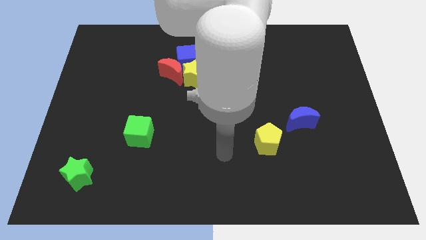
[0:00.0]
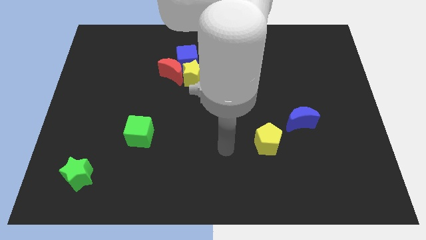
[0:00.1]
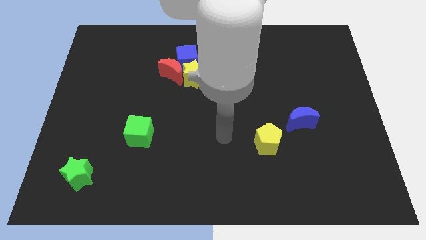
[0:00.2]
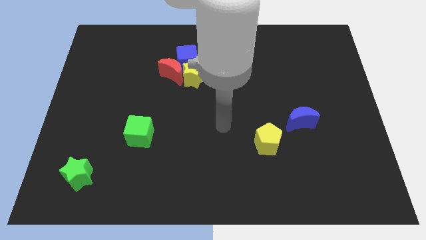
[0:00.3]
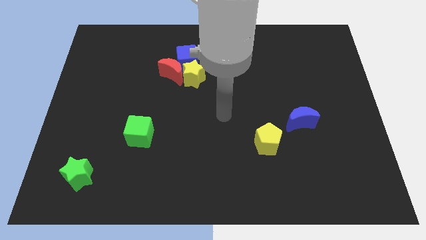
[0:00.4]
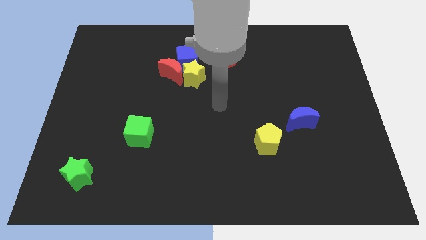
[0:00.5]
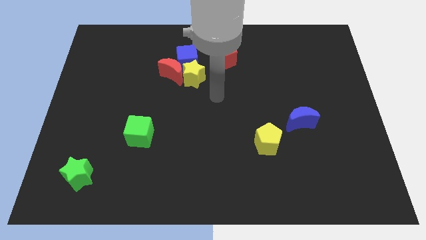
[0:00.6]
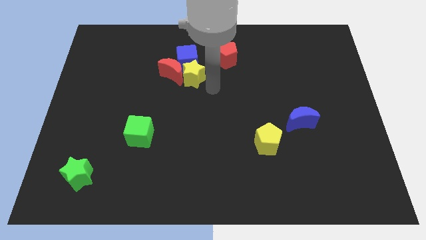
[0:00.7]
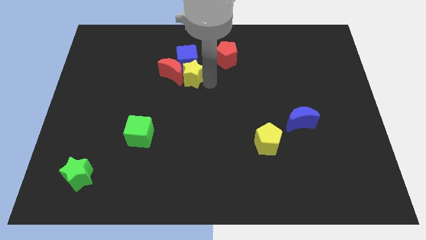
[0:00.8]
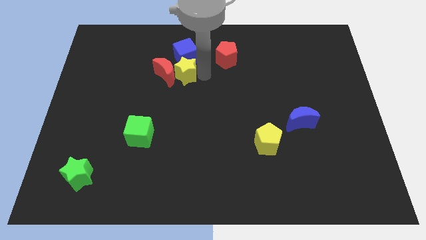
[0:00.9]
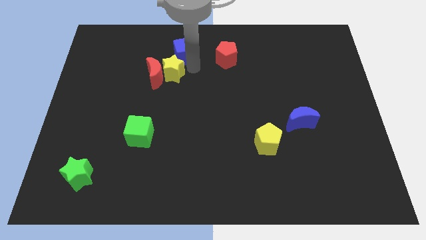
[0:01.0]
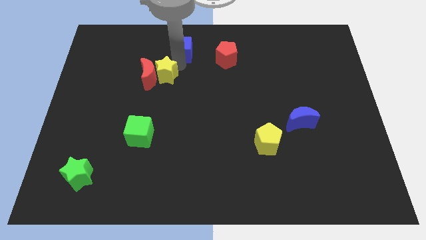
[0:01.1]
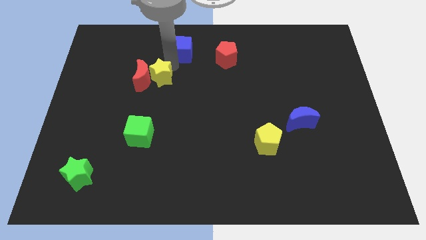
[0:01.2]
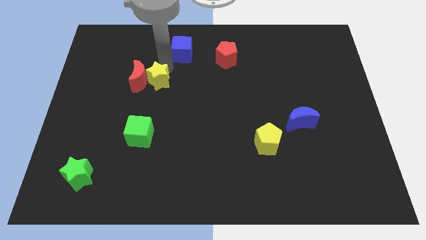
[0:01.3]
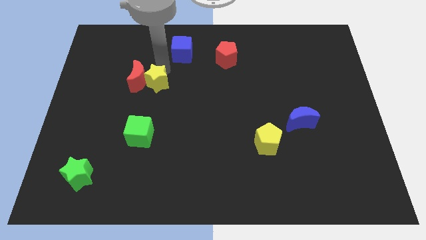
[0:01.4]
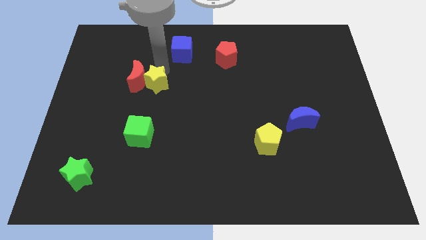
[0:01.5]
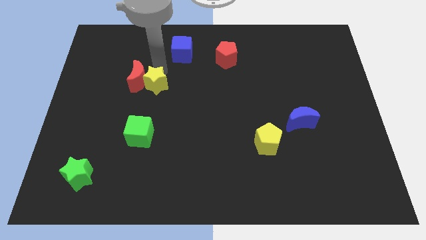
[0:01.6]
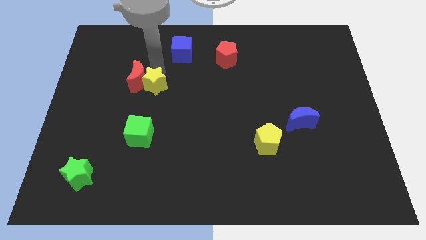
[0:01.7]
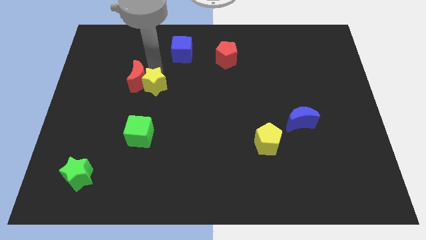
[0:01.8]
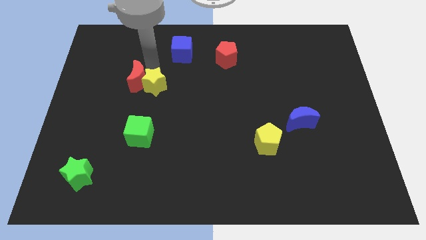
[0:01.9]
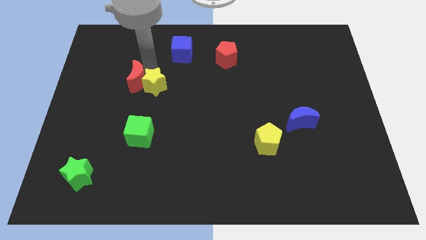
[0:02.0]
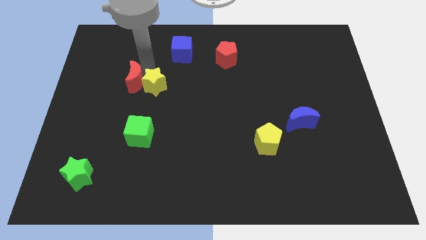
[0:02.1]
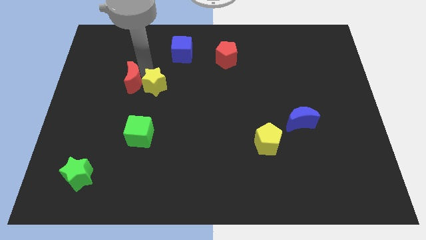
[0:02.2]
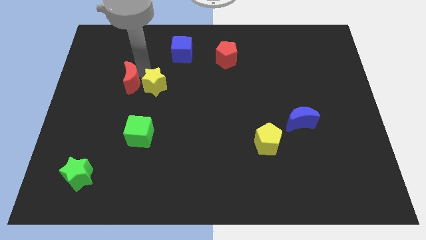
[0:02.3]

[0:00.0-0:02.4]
separate the red moon from the blue cube and yellow star

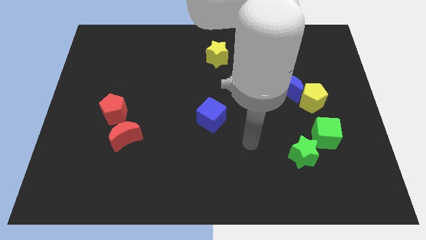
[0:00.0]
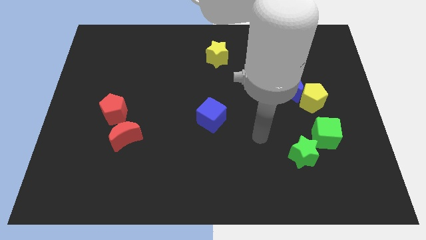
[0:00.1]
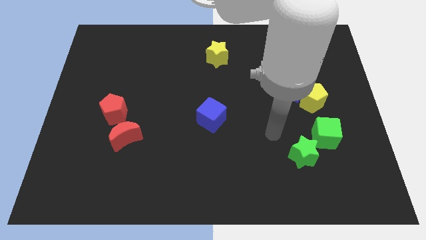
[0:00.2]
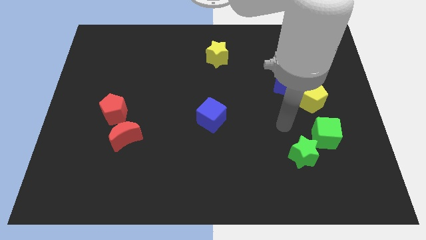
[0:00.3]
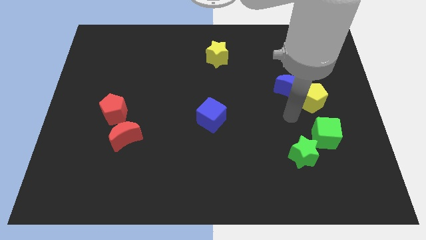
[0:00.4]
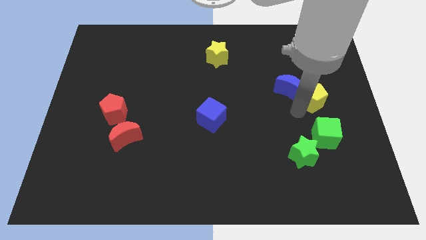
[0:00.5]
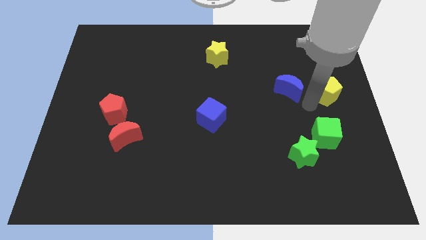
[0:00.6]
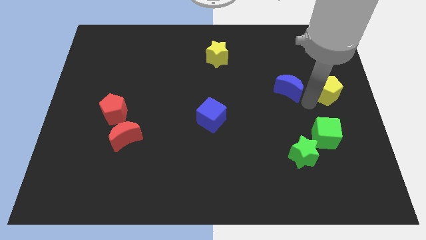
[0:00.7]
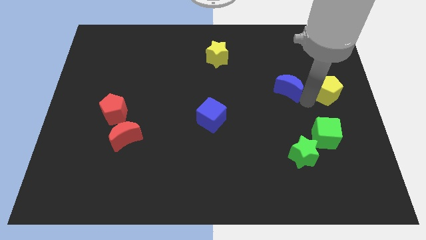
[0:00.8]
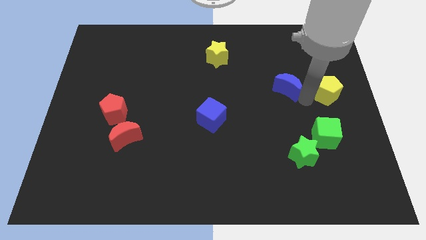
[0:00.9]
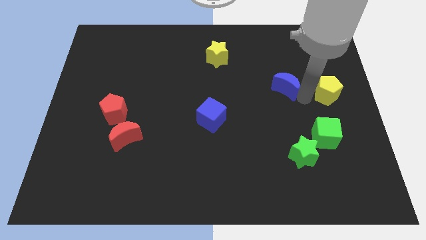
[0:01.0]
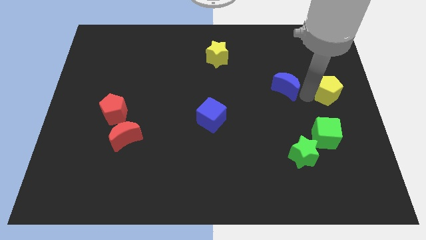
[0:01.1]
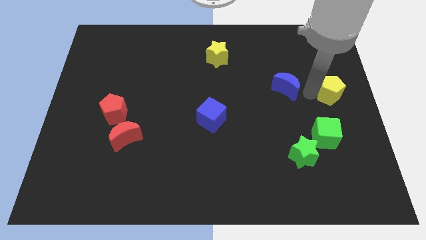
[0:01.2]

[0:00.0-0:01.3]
separate the blue moon from the yellow pentagon

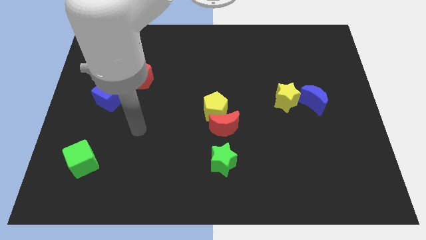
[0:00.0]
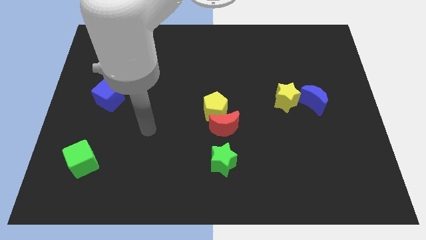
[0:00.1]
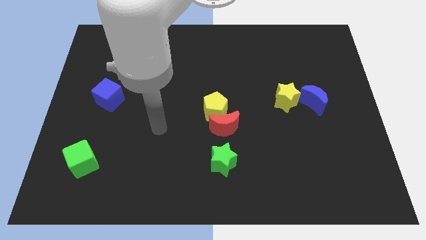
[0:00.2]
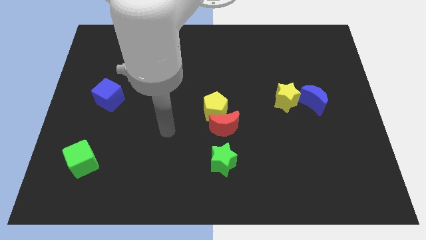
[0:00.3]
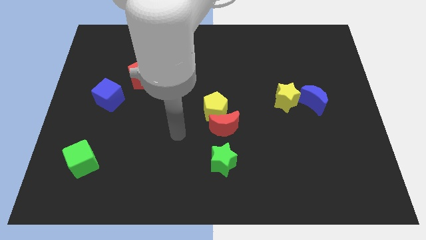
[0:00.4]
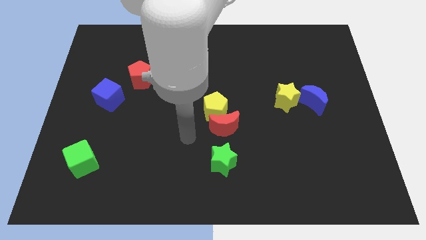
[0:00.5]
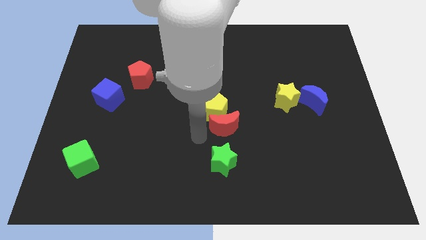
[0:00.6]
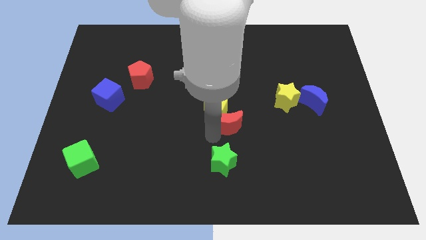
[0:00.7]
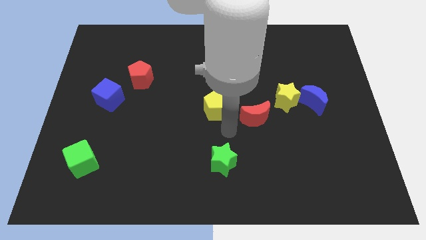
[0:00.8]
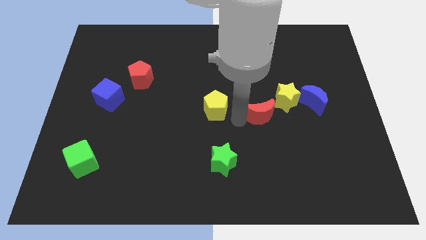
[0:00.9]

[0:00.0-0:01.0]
pull the yellow pentagon apart from the red moon

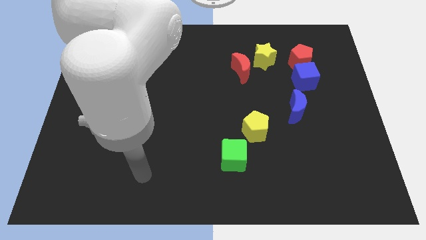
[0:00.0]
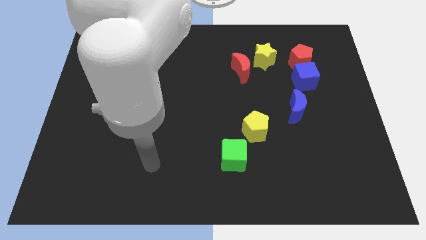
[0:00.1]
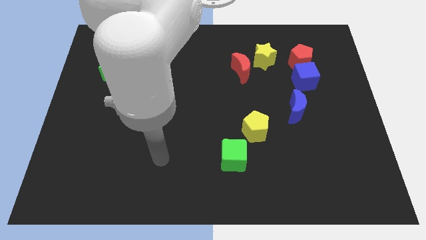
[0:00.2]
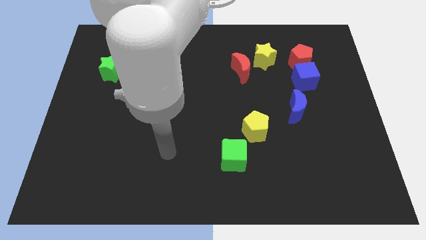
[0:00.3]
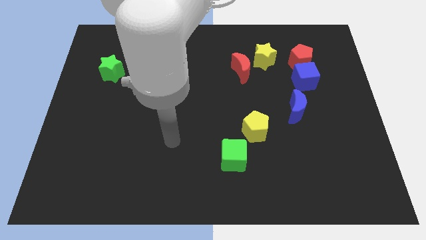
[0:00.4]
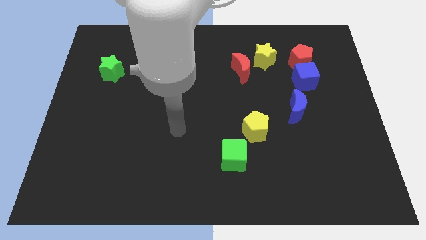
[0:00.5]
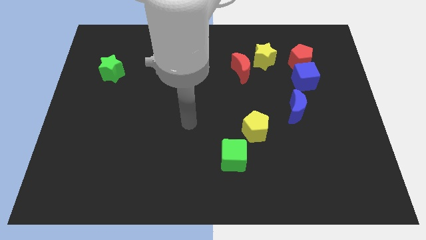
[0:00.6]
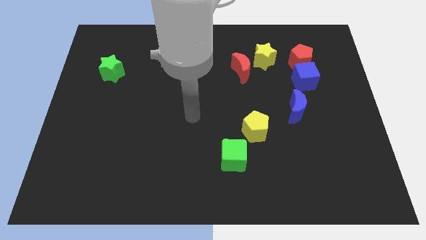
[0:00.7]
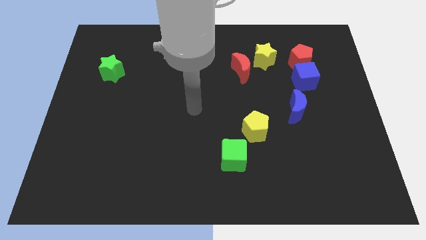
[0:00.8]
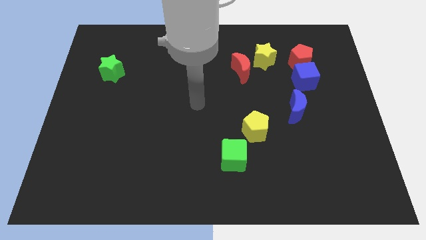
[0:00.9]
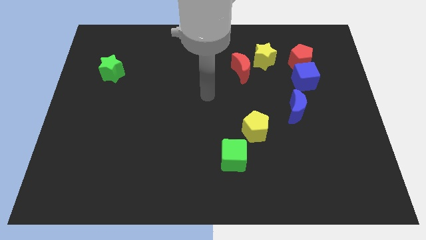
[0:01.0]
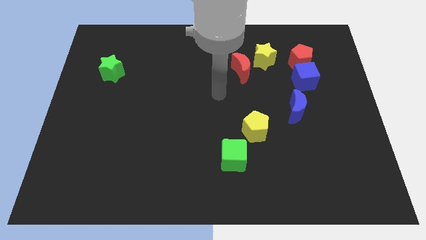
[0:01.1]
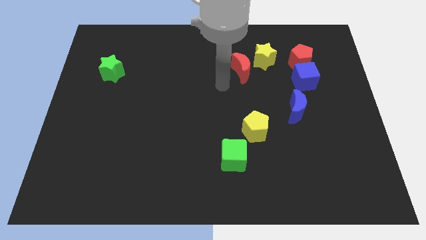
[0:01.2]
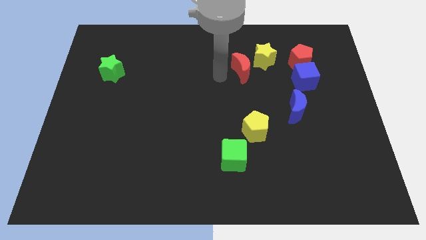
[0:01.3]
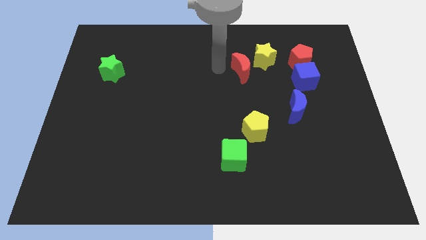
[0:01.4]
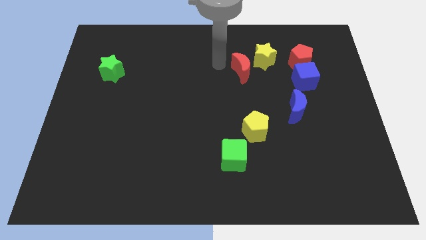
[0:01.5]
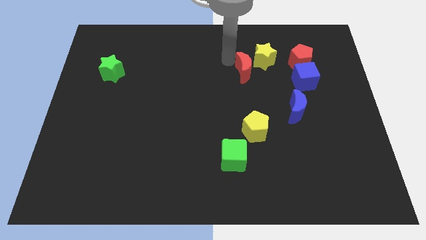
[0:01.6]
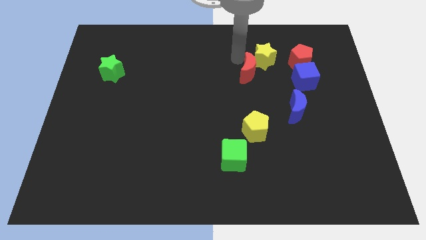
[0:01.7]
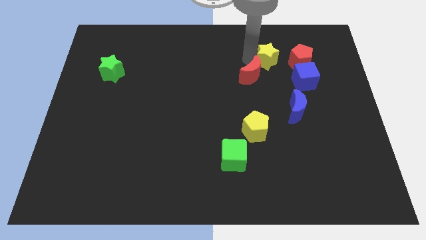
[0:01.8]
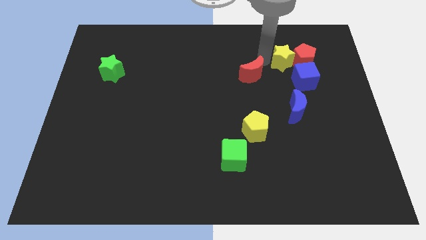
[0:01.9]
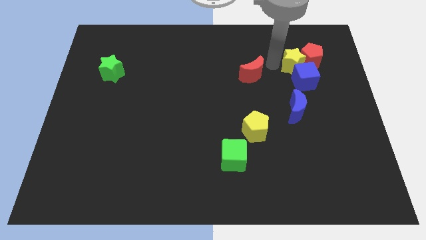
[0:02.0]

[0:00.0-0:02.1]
move the red moon away from the yellow star

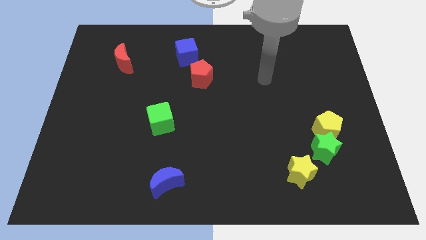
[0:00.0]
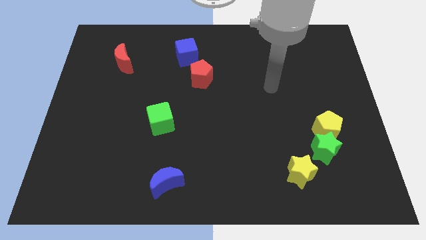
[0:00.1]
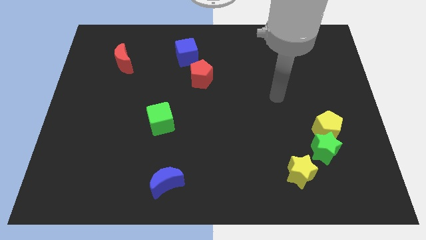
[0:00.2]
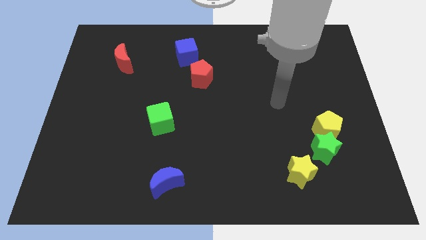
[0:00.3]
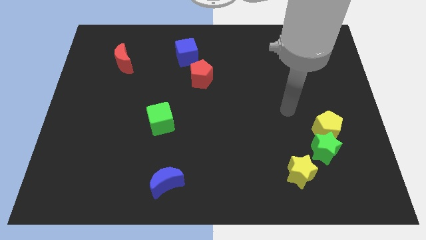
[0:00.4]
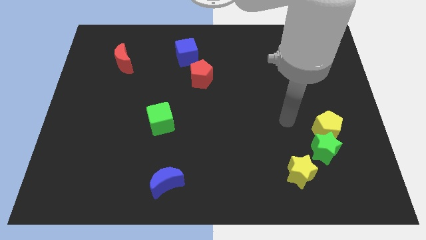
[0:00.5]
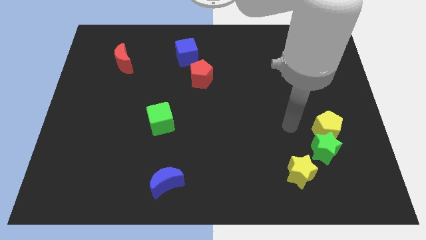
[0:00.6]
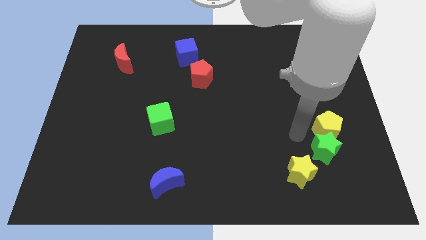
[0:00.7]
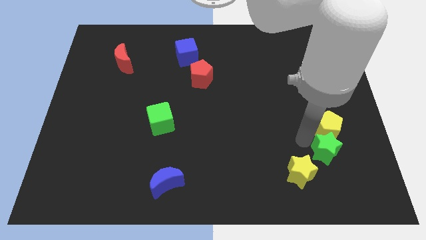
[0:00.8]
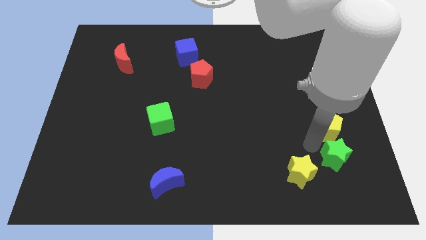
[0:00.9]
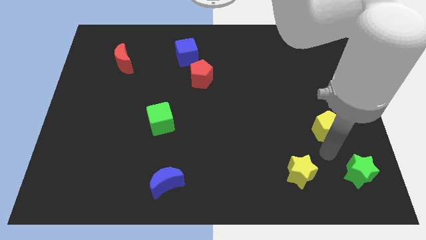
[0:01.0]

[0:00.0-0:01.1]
separate the yellow pentagon from the green star

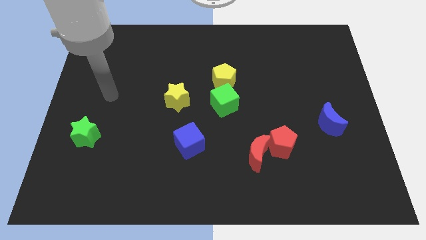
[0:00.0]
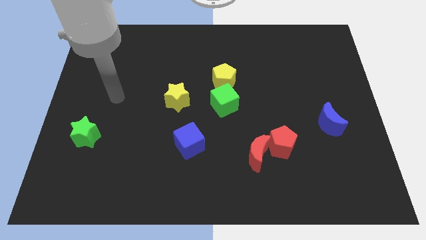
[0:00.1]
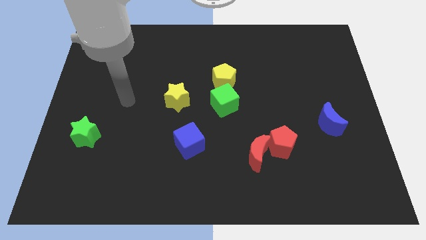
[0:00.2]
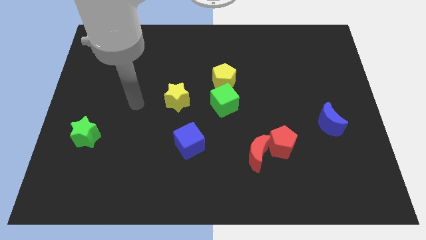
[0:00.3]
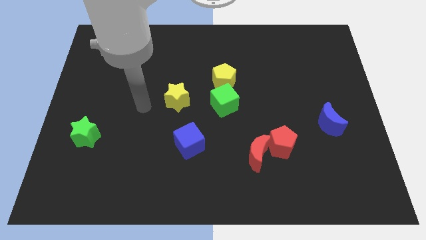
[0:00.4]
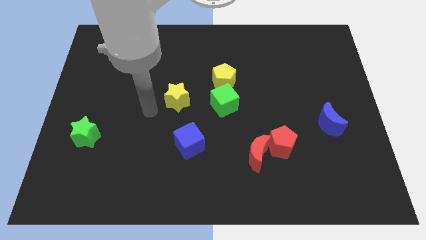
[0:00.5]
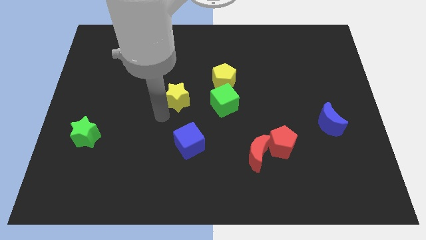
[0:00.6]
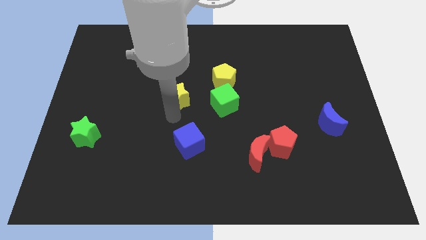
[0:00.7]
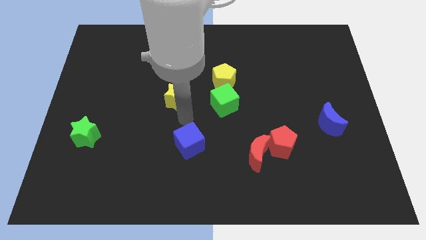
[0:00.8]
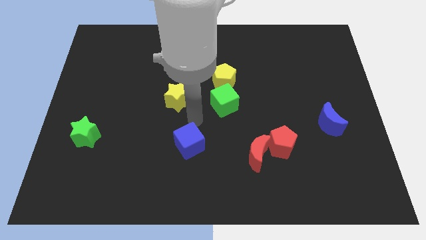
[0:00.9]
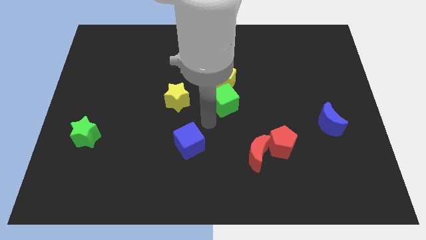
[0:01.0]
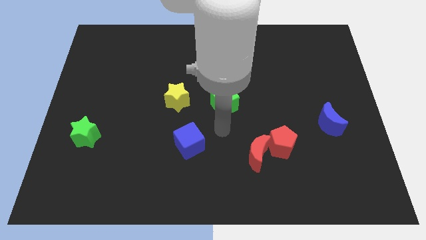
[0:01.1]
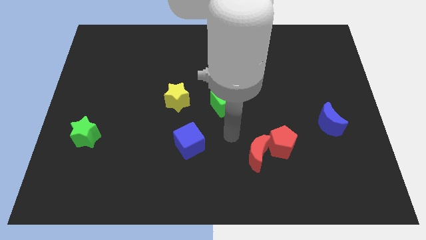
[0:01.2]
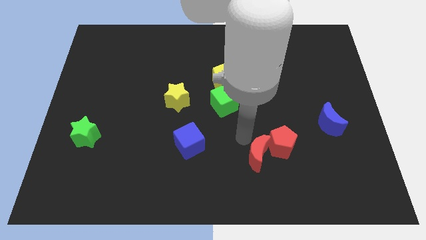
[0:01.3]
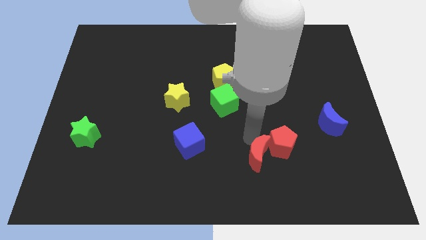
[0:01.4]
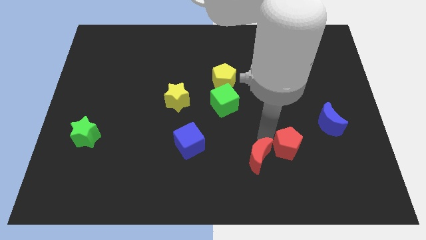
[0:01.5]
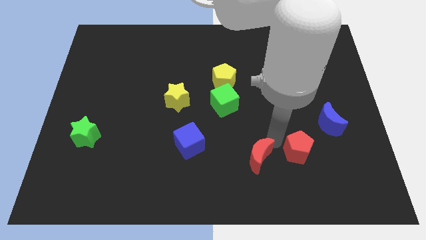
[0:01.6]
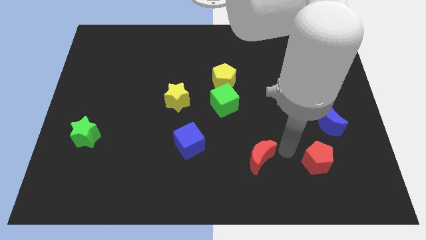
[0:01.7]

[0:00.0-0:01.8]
separate the red moon from the red pentagon
